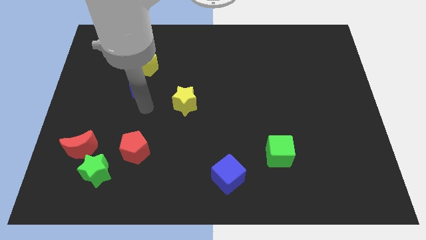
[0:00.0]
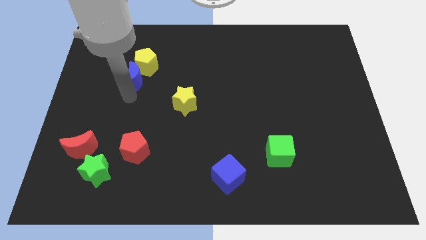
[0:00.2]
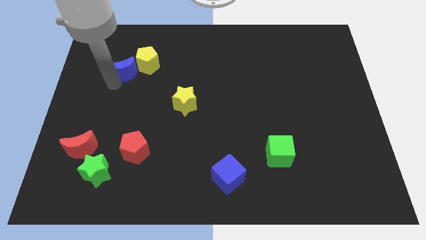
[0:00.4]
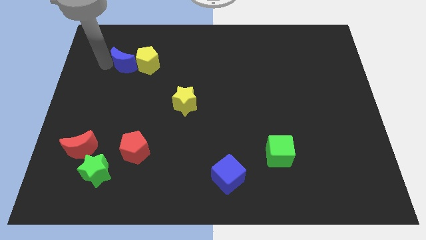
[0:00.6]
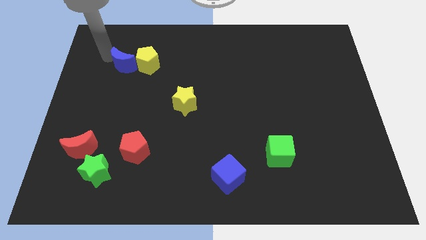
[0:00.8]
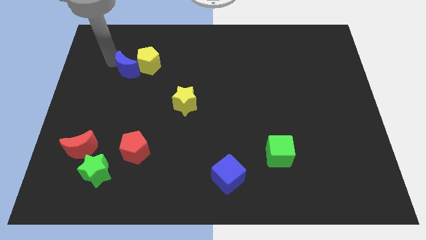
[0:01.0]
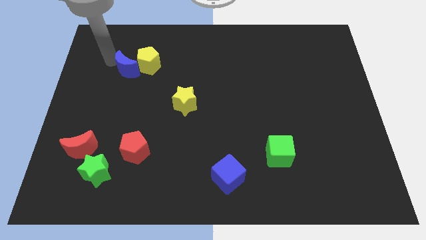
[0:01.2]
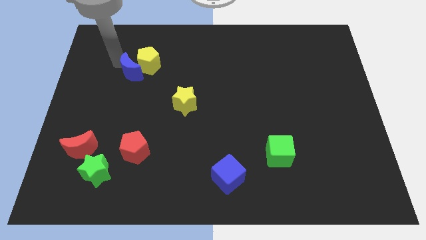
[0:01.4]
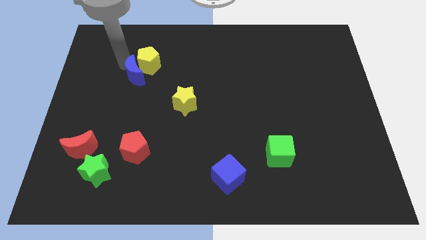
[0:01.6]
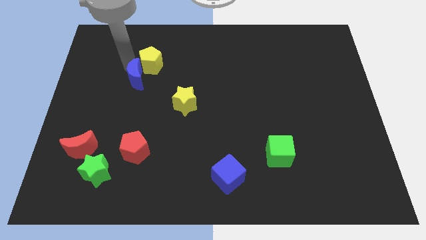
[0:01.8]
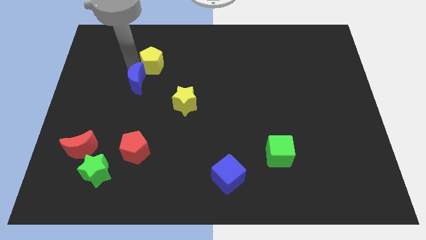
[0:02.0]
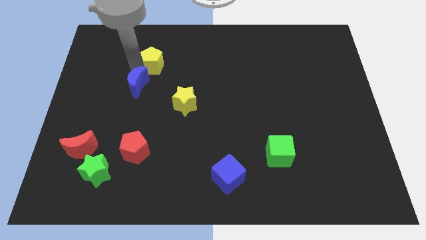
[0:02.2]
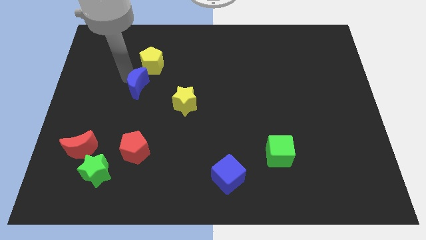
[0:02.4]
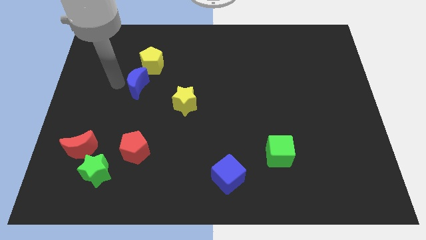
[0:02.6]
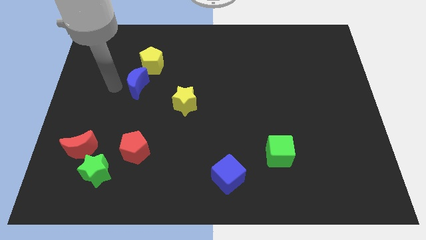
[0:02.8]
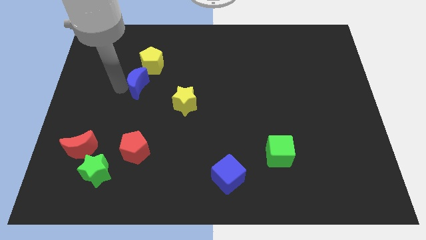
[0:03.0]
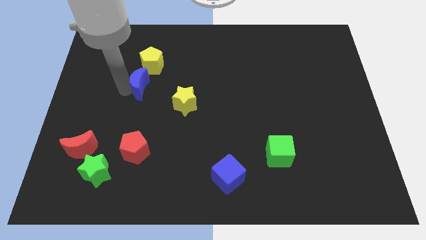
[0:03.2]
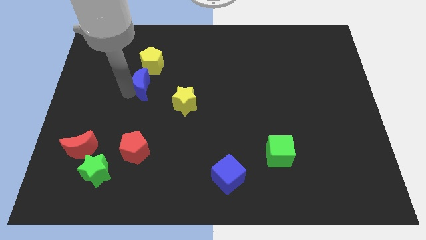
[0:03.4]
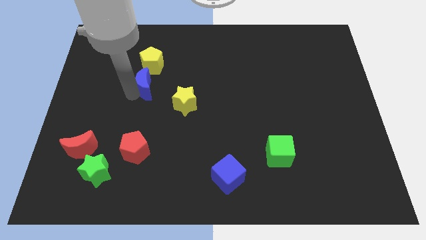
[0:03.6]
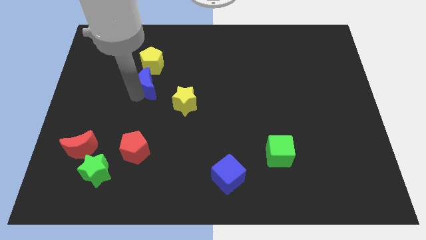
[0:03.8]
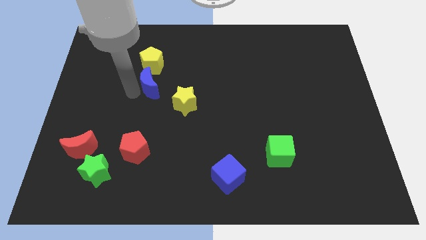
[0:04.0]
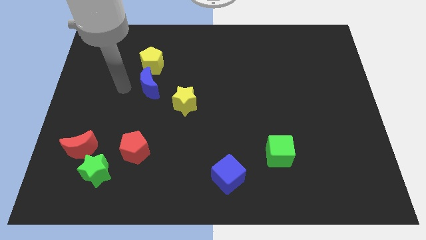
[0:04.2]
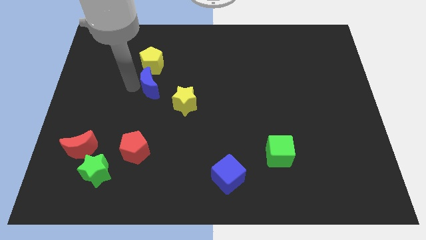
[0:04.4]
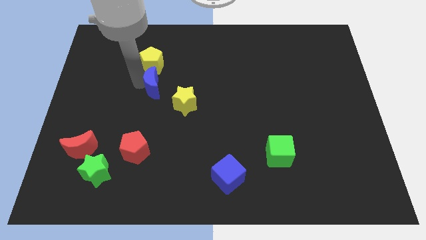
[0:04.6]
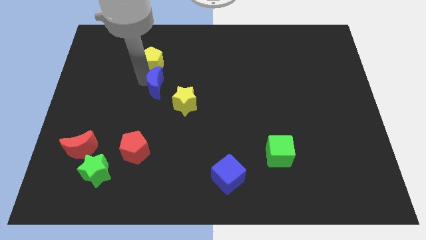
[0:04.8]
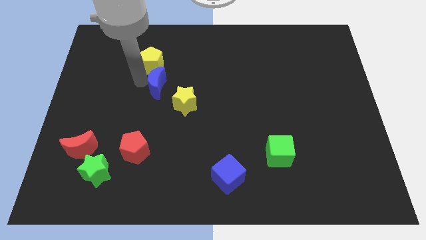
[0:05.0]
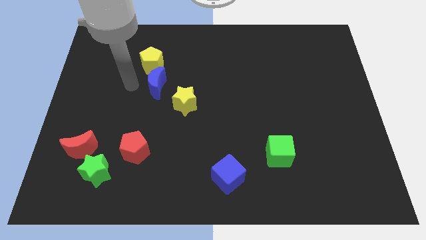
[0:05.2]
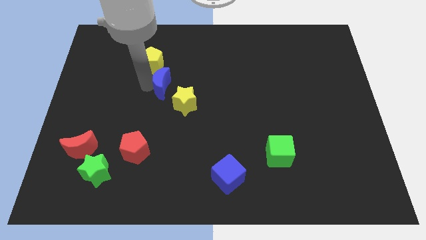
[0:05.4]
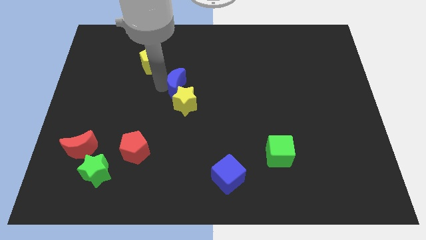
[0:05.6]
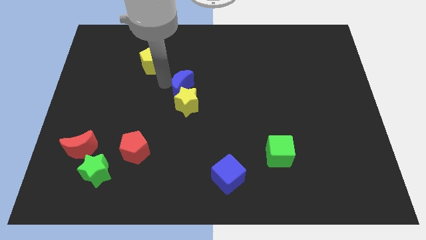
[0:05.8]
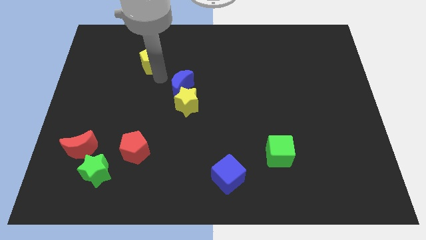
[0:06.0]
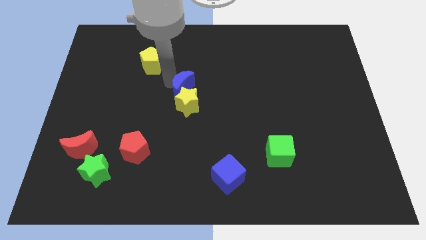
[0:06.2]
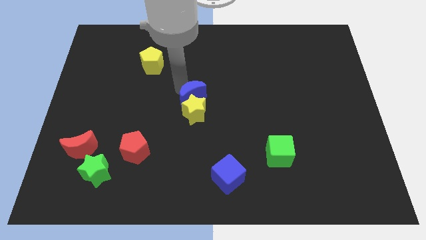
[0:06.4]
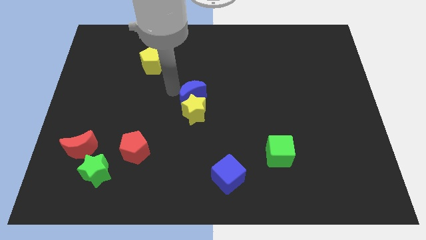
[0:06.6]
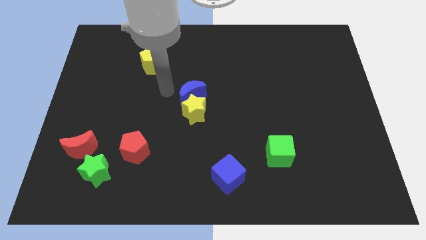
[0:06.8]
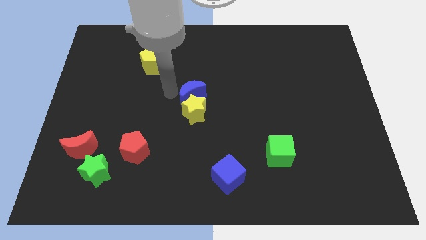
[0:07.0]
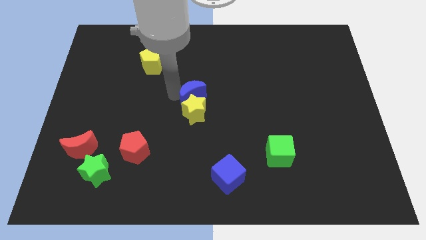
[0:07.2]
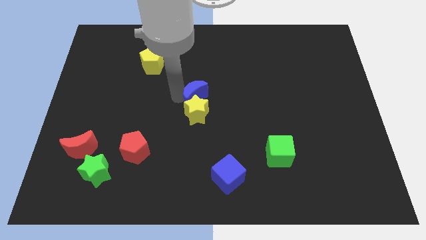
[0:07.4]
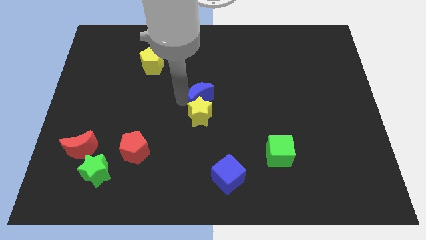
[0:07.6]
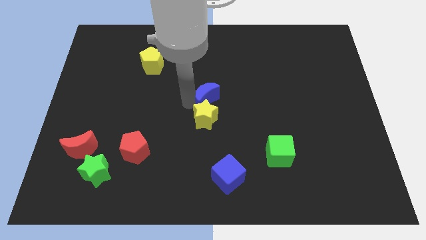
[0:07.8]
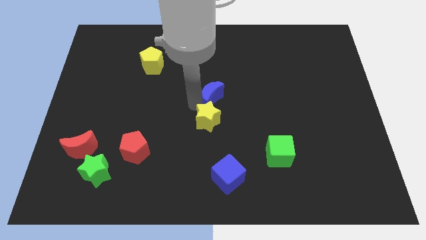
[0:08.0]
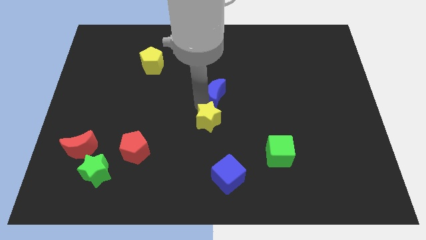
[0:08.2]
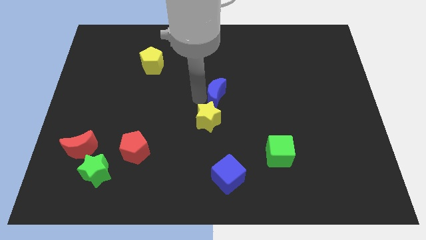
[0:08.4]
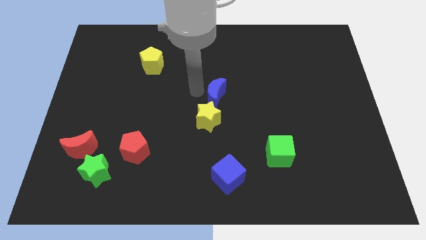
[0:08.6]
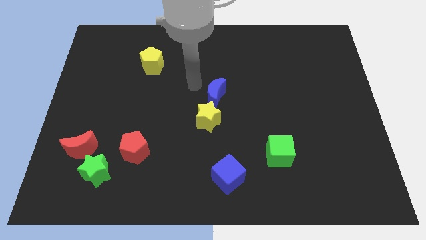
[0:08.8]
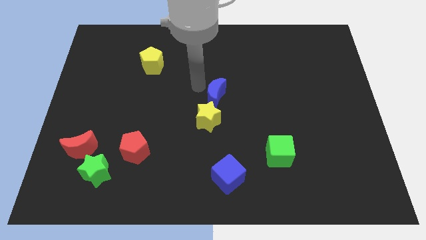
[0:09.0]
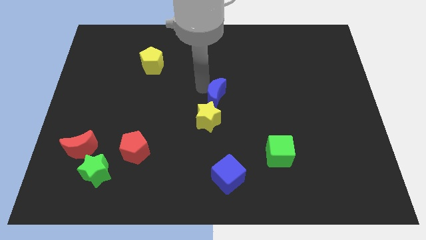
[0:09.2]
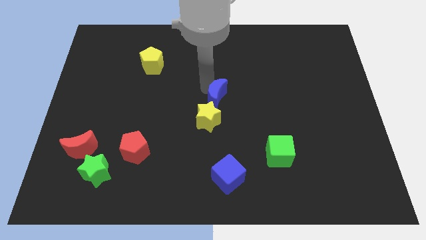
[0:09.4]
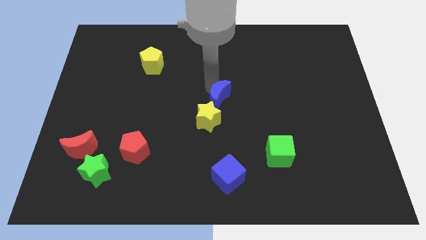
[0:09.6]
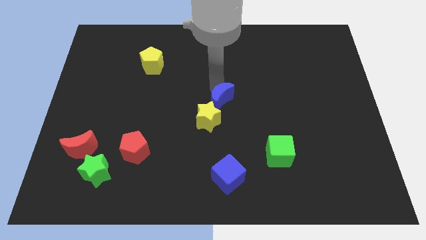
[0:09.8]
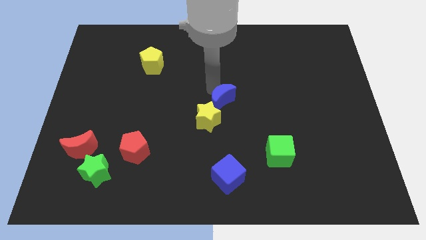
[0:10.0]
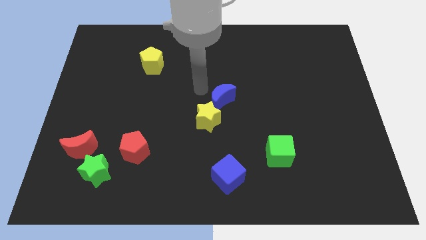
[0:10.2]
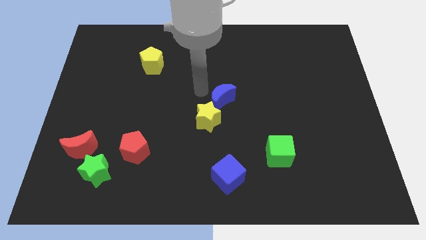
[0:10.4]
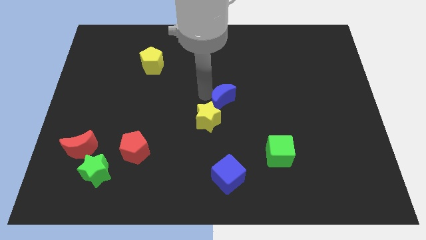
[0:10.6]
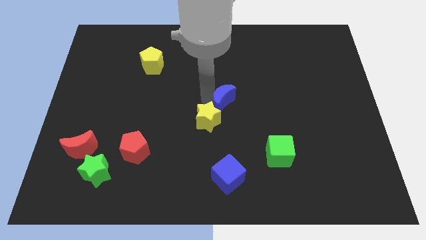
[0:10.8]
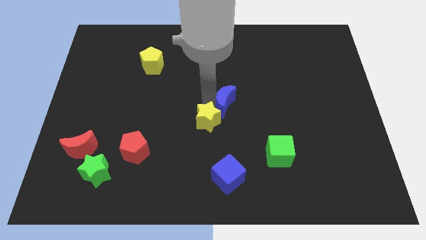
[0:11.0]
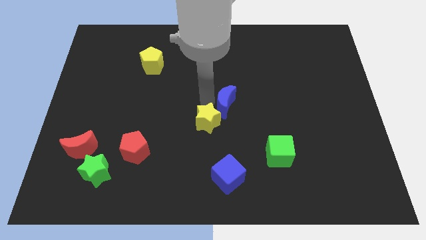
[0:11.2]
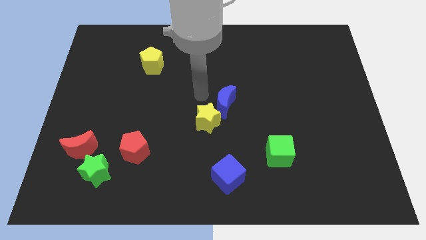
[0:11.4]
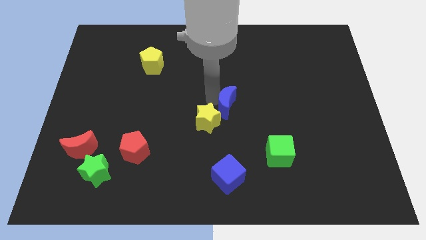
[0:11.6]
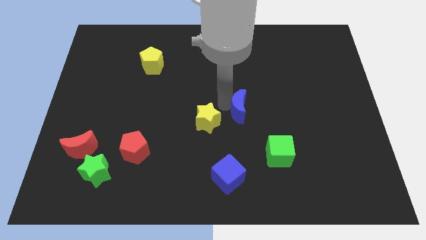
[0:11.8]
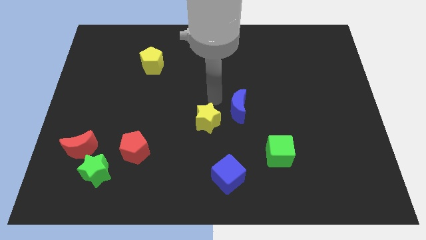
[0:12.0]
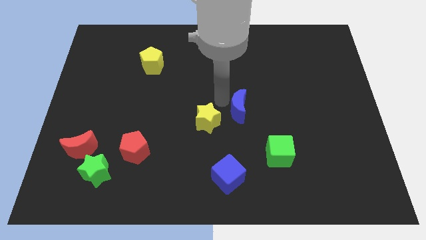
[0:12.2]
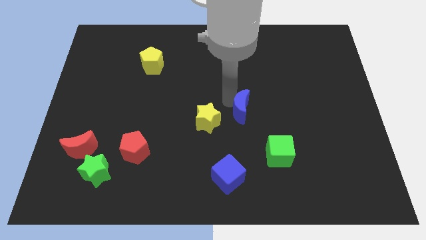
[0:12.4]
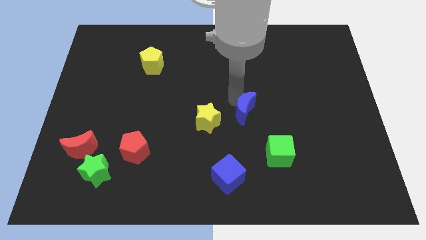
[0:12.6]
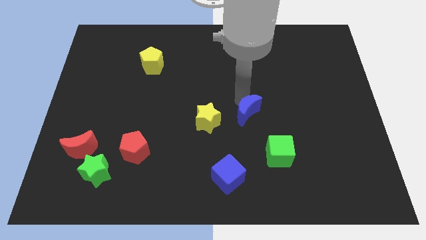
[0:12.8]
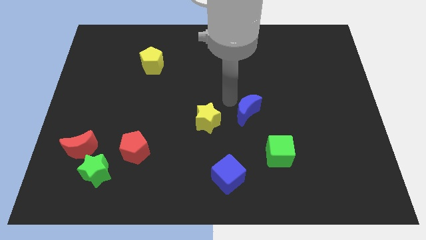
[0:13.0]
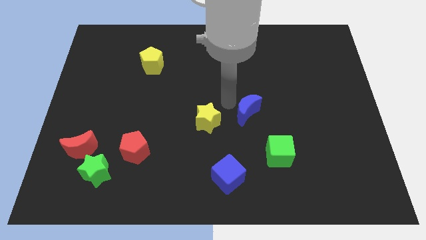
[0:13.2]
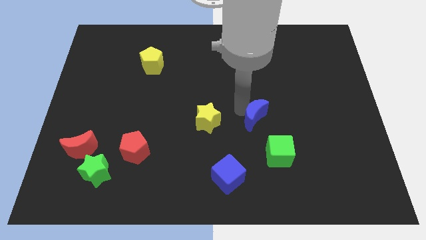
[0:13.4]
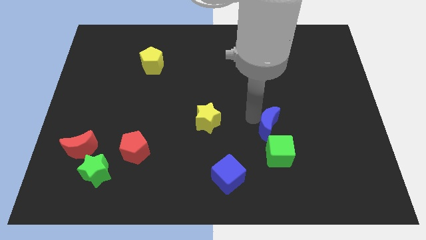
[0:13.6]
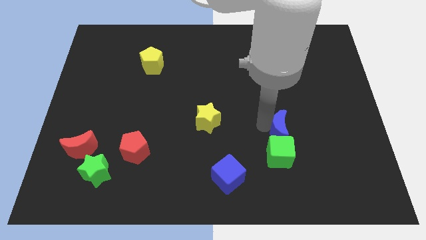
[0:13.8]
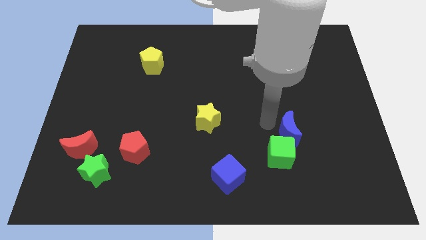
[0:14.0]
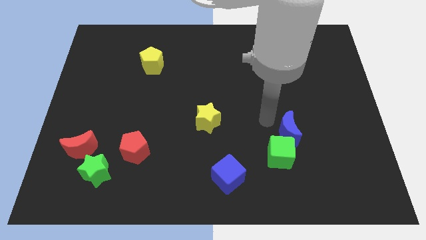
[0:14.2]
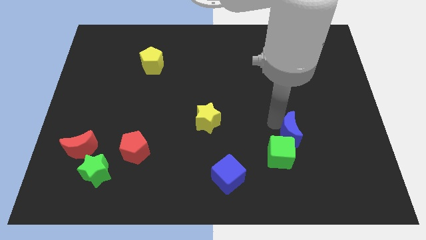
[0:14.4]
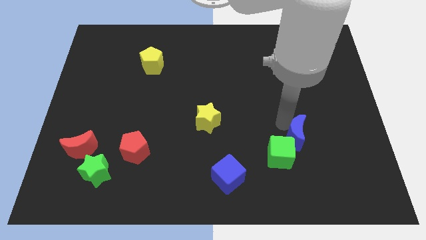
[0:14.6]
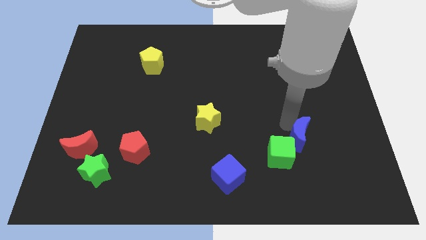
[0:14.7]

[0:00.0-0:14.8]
move the blue moon right of the green cube
